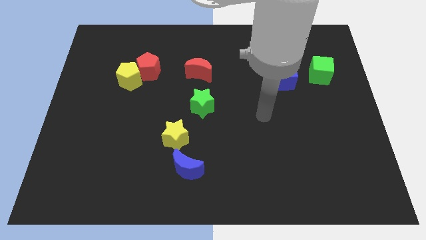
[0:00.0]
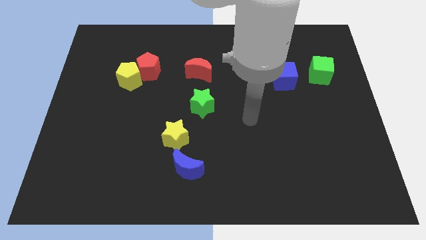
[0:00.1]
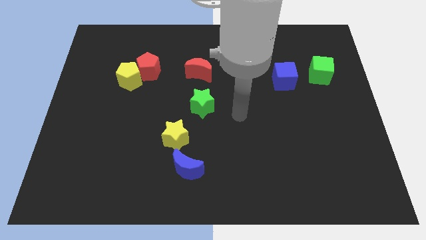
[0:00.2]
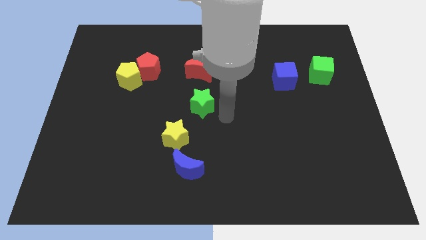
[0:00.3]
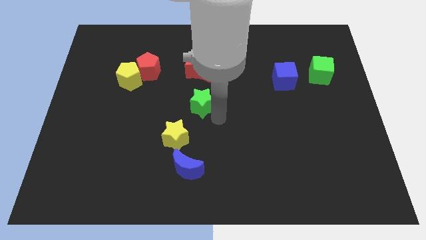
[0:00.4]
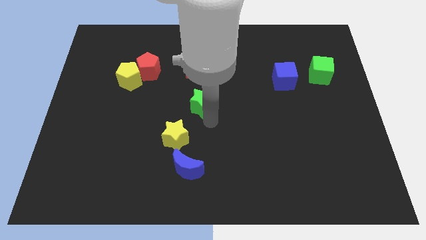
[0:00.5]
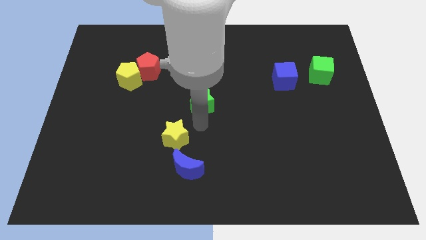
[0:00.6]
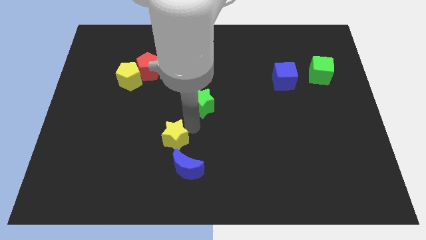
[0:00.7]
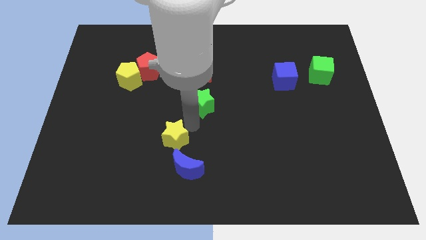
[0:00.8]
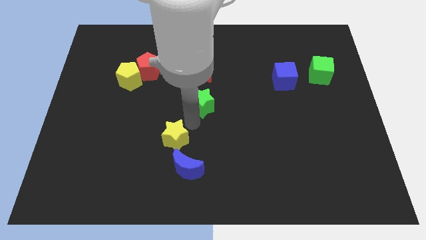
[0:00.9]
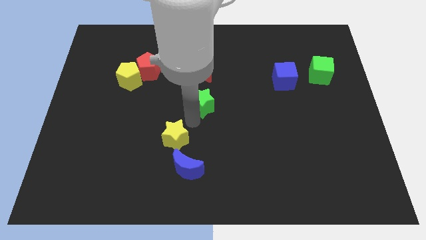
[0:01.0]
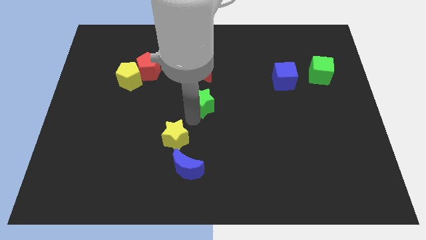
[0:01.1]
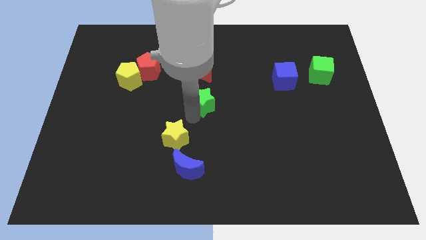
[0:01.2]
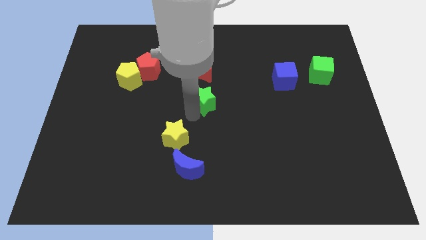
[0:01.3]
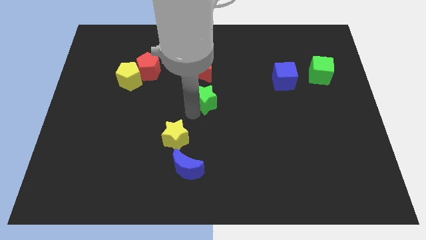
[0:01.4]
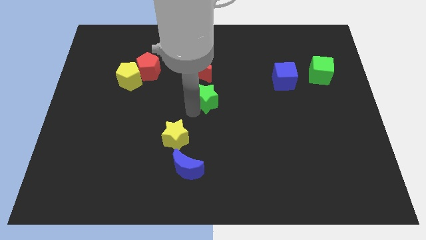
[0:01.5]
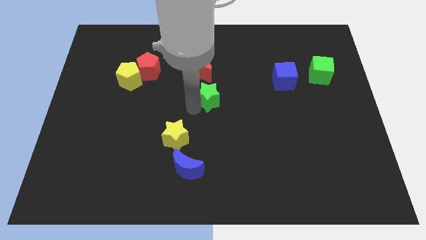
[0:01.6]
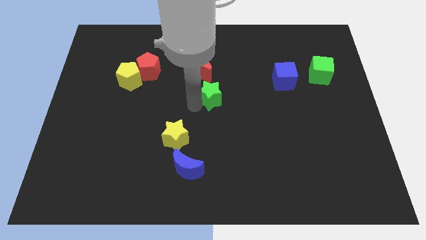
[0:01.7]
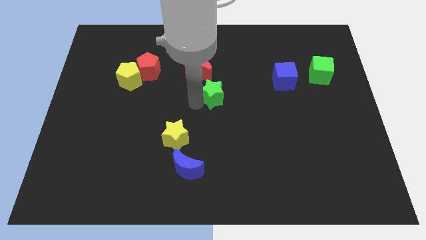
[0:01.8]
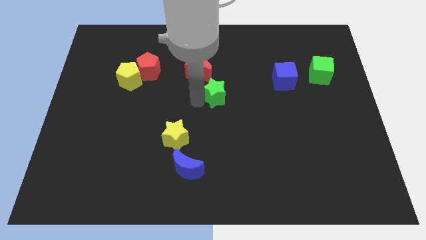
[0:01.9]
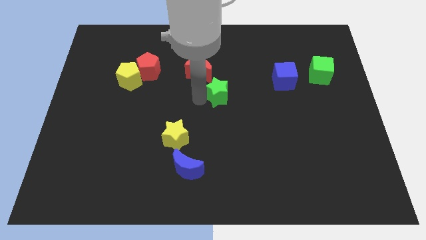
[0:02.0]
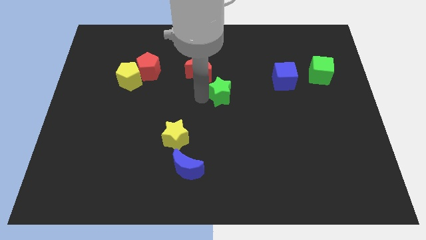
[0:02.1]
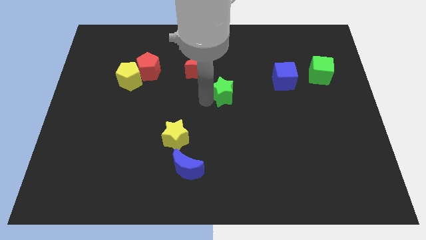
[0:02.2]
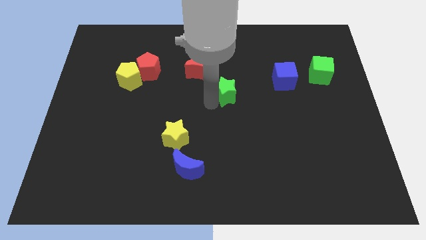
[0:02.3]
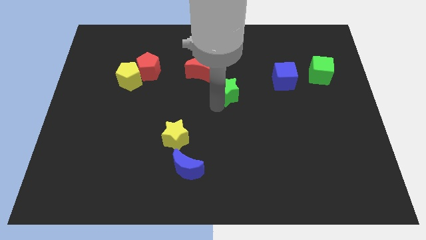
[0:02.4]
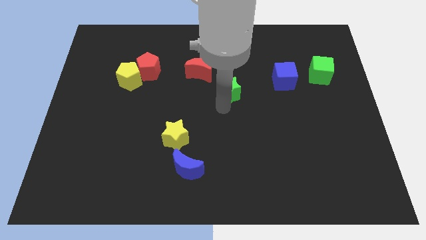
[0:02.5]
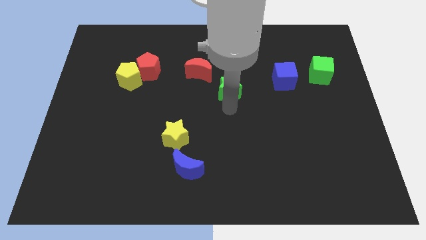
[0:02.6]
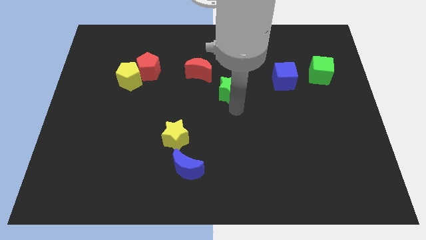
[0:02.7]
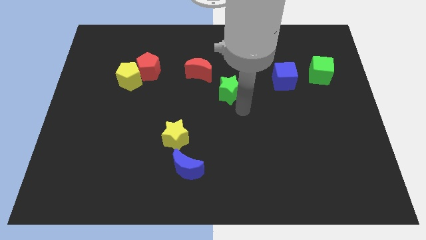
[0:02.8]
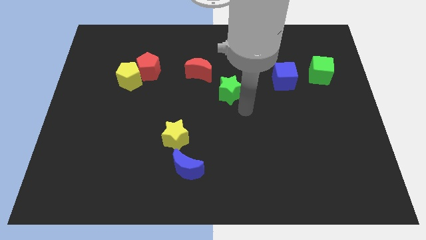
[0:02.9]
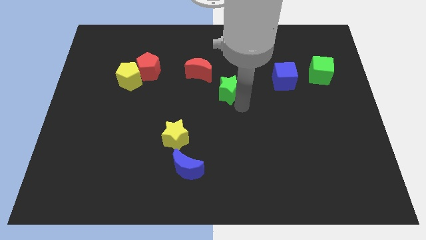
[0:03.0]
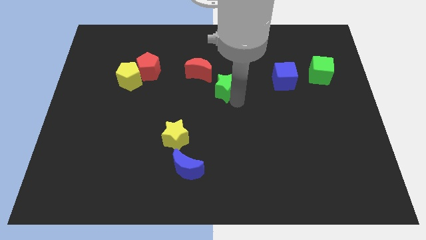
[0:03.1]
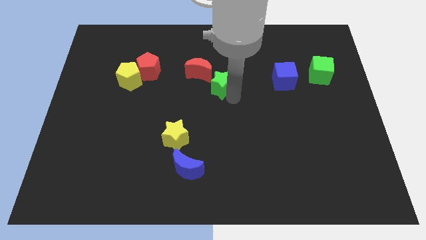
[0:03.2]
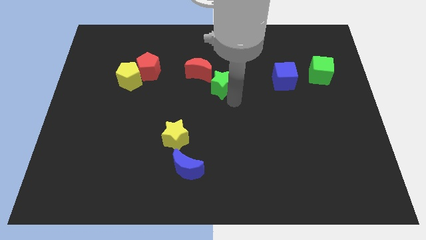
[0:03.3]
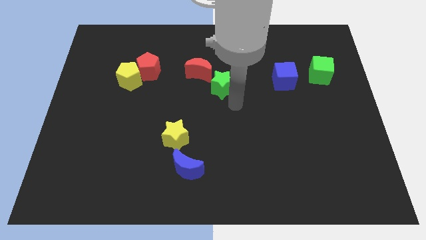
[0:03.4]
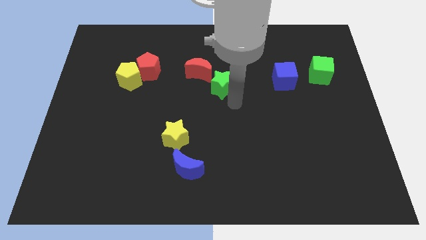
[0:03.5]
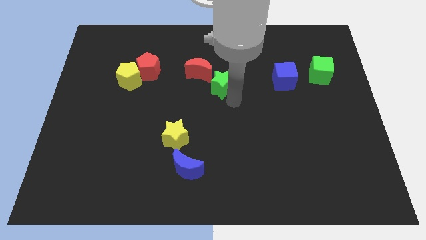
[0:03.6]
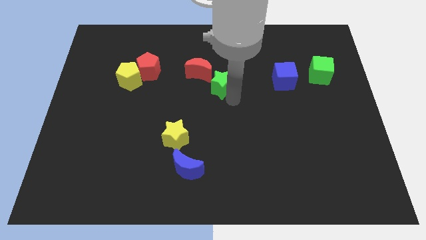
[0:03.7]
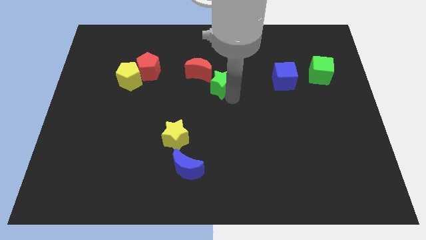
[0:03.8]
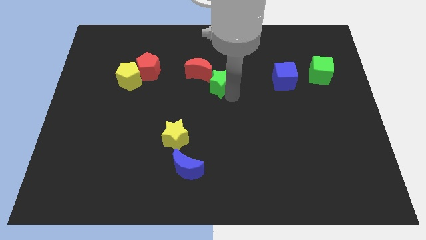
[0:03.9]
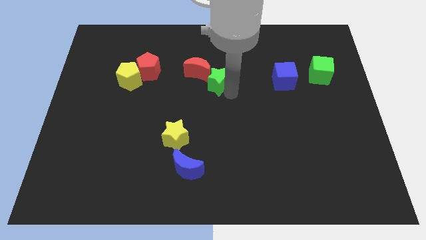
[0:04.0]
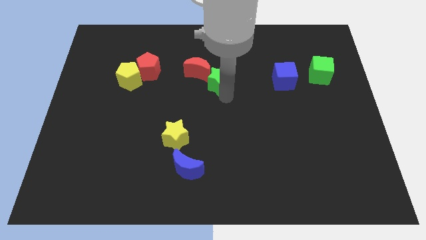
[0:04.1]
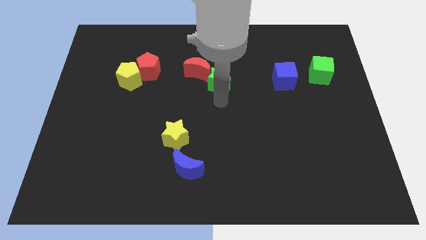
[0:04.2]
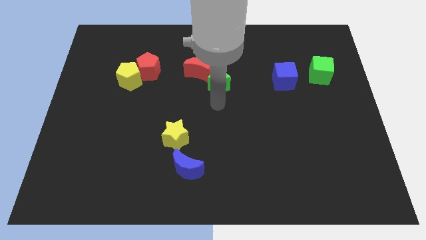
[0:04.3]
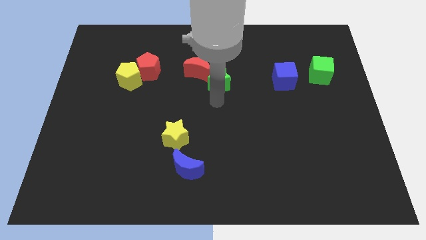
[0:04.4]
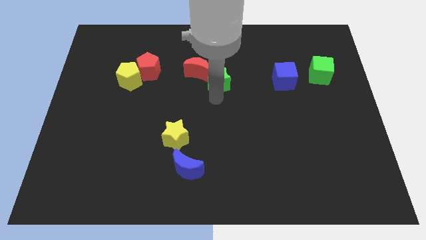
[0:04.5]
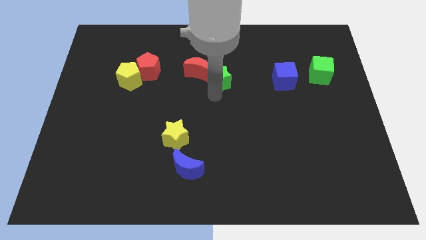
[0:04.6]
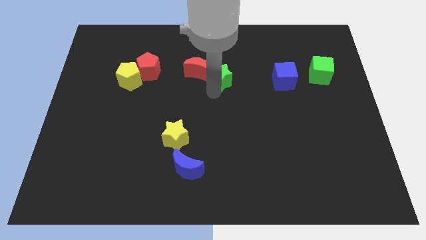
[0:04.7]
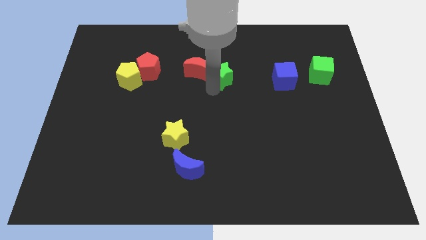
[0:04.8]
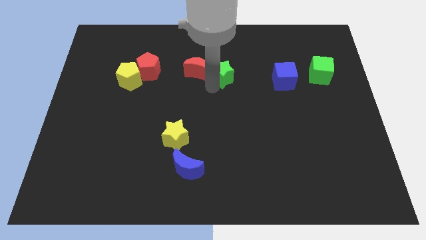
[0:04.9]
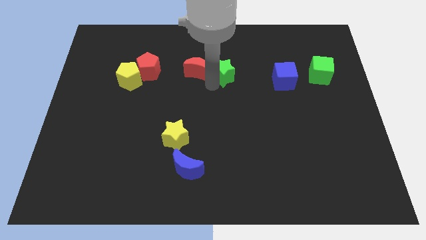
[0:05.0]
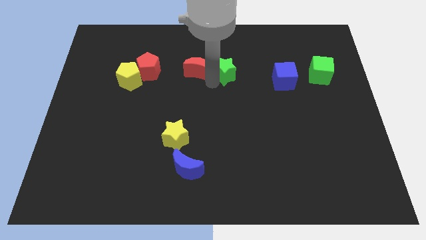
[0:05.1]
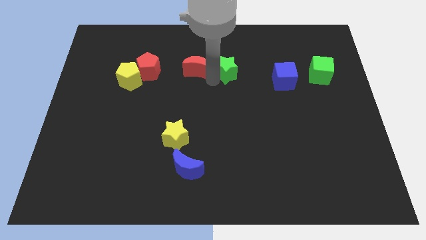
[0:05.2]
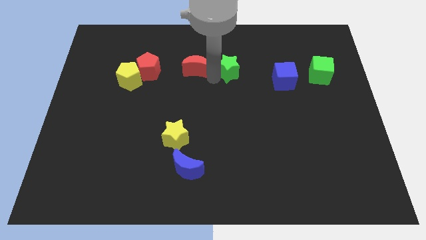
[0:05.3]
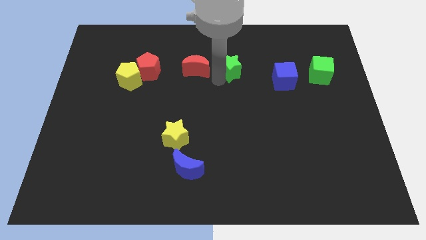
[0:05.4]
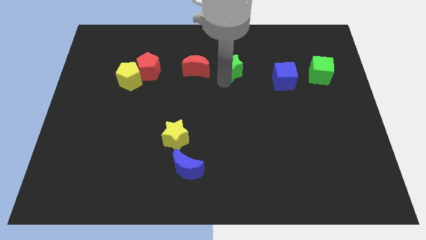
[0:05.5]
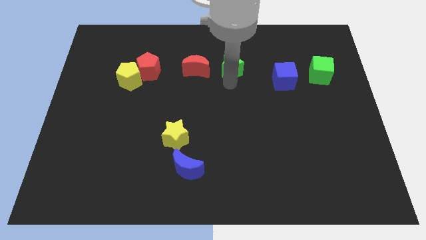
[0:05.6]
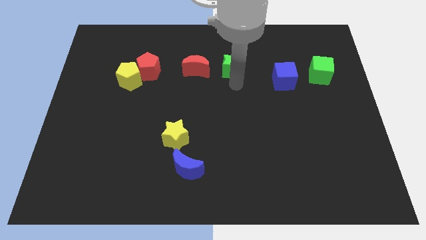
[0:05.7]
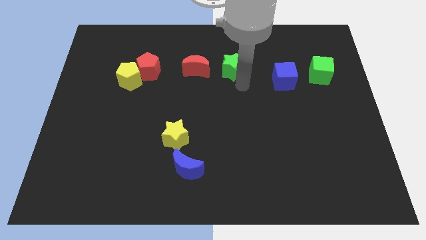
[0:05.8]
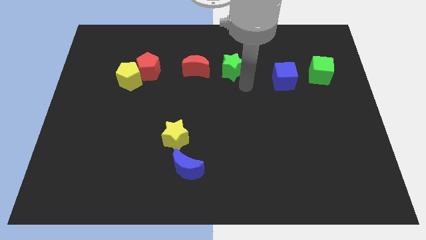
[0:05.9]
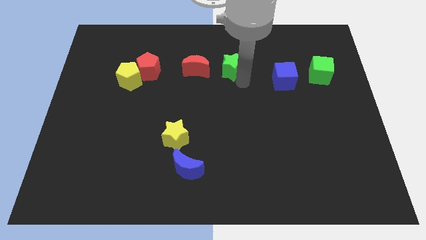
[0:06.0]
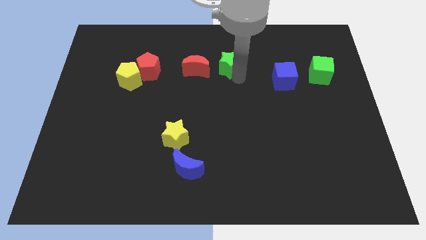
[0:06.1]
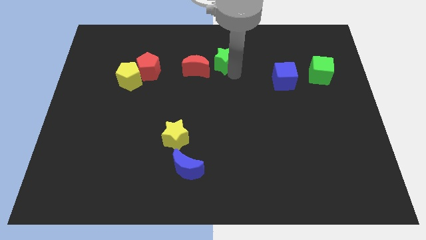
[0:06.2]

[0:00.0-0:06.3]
push the green star diagonally up and to the right of the red moon
